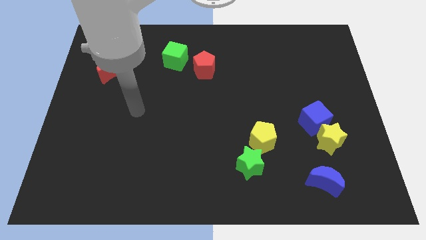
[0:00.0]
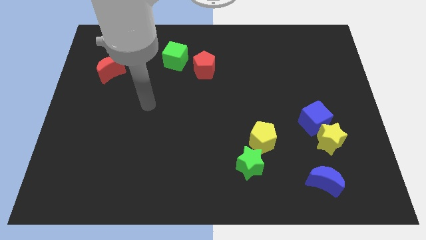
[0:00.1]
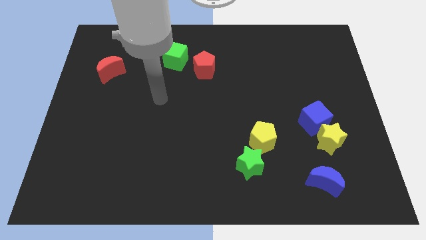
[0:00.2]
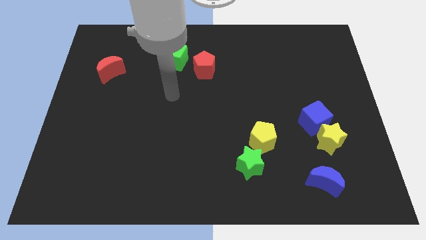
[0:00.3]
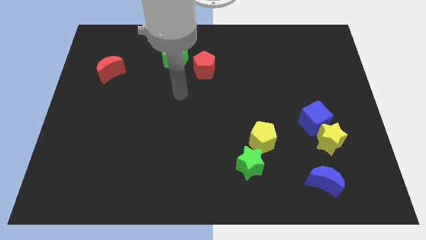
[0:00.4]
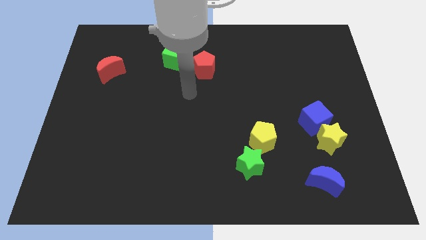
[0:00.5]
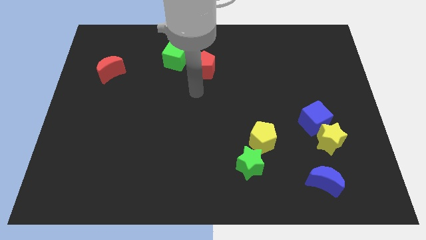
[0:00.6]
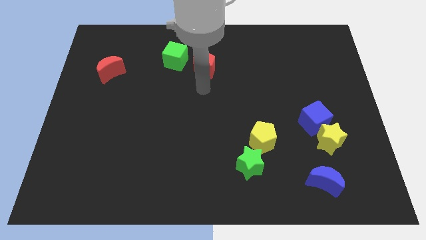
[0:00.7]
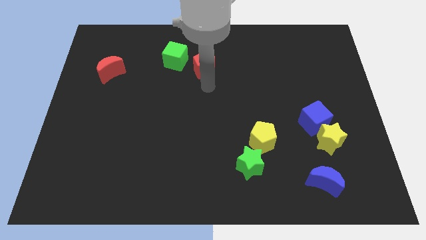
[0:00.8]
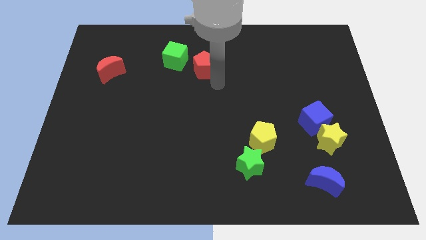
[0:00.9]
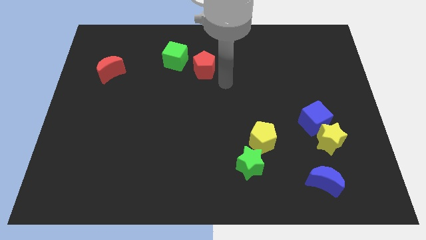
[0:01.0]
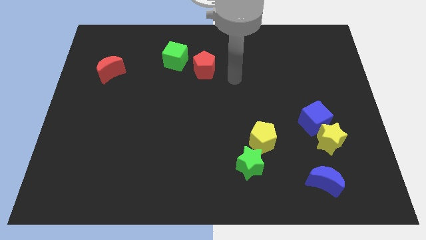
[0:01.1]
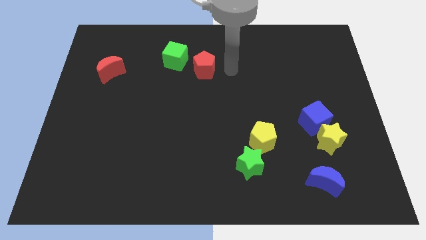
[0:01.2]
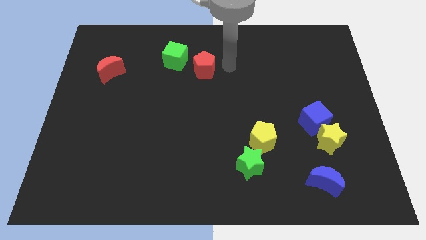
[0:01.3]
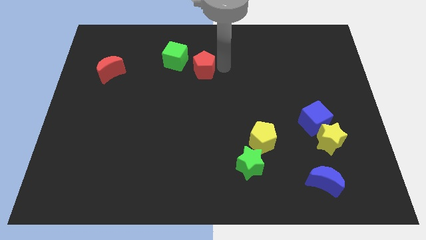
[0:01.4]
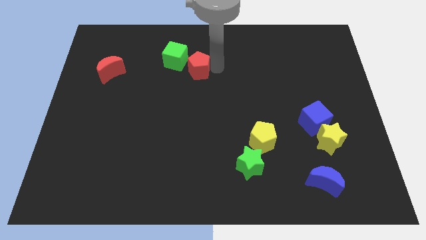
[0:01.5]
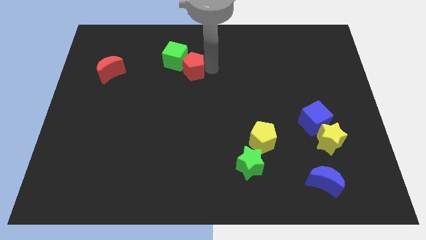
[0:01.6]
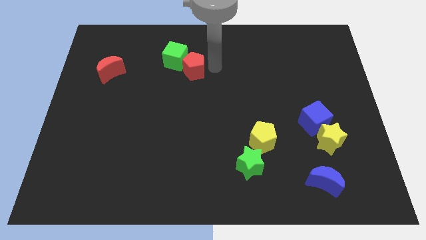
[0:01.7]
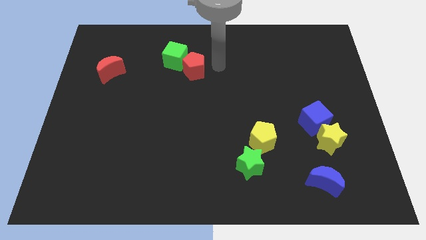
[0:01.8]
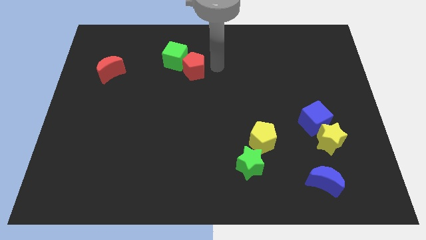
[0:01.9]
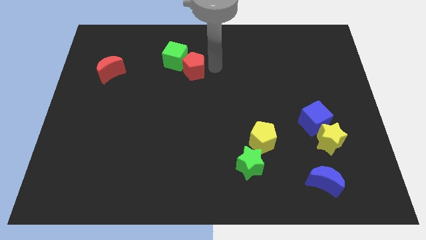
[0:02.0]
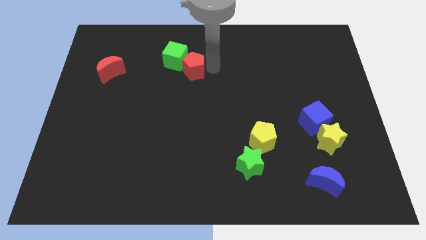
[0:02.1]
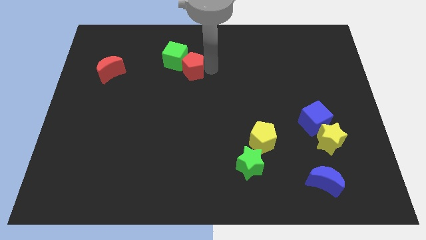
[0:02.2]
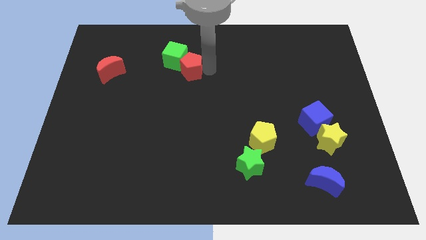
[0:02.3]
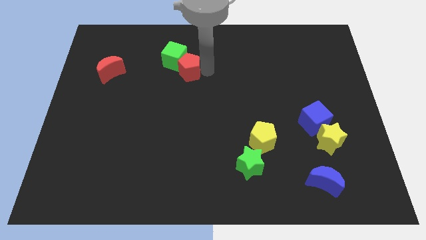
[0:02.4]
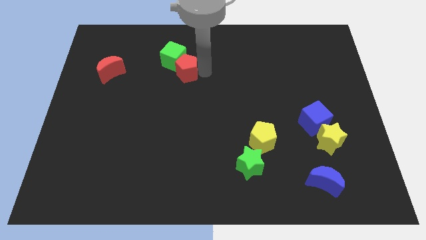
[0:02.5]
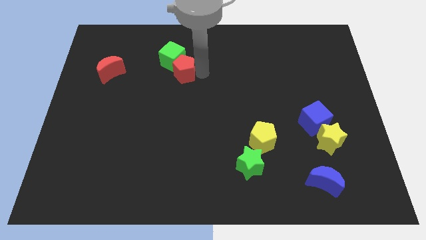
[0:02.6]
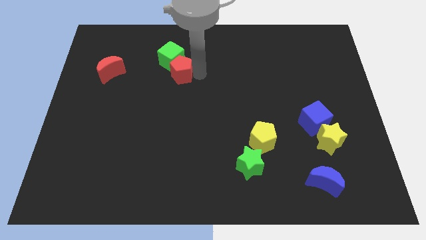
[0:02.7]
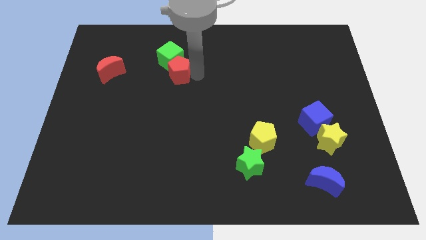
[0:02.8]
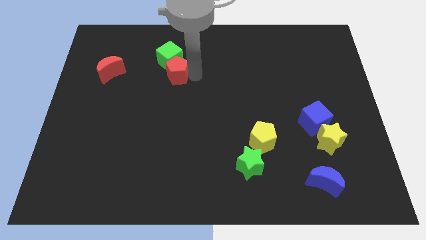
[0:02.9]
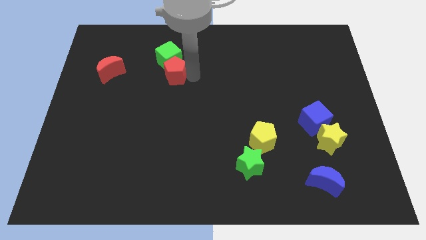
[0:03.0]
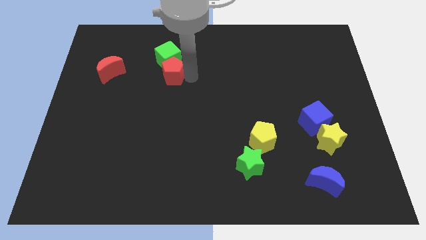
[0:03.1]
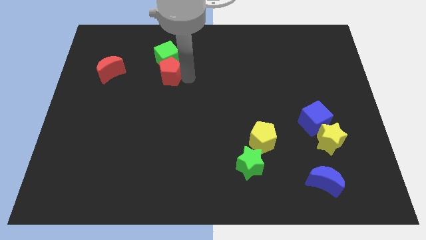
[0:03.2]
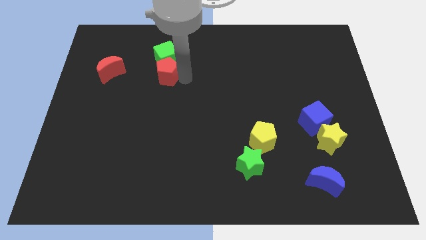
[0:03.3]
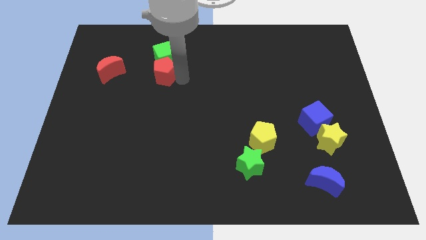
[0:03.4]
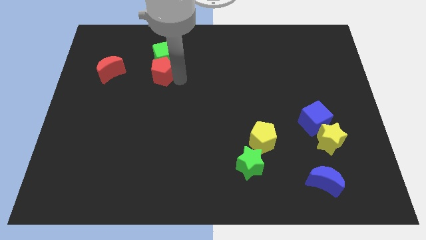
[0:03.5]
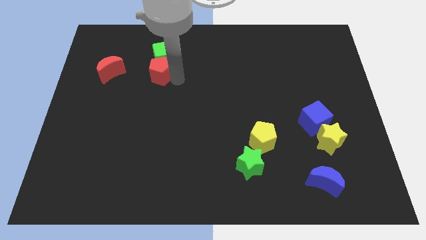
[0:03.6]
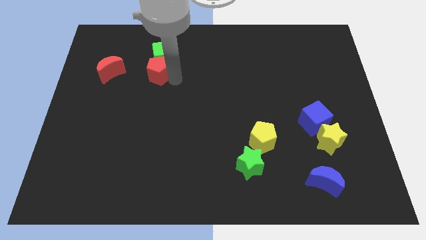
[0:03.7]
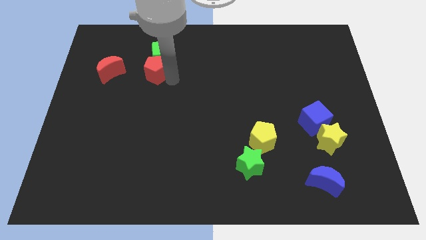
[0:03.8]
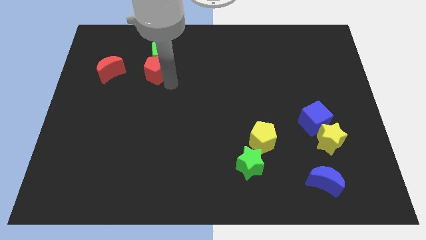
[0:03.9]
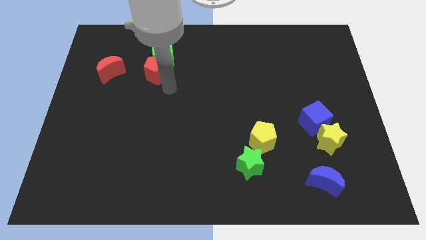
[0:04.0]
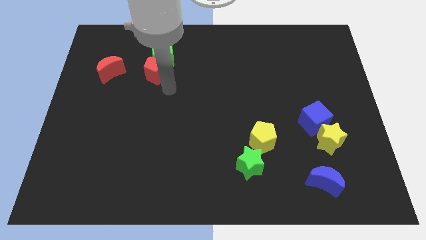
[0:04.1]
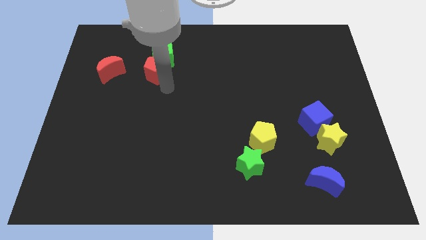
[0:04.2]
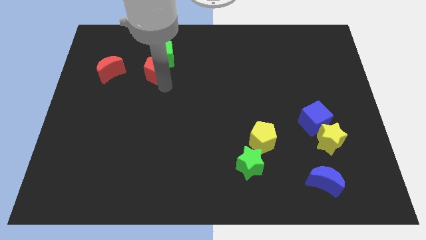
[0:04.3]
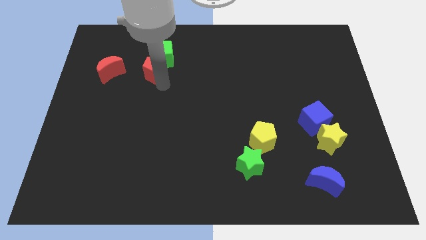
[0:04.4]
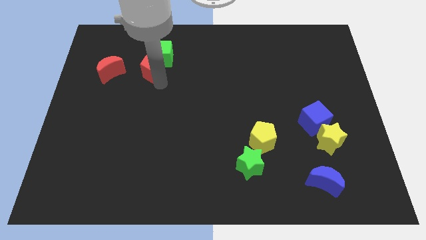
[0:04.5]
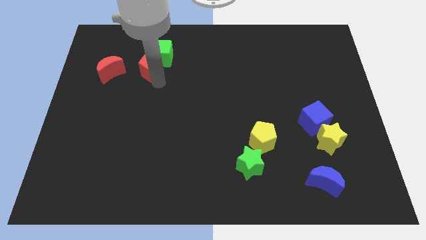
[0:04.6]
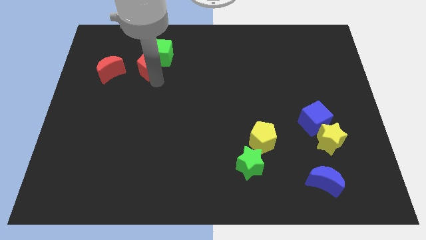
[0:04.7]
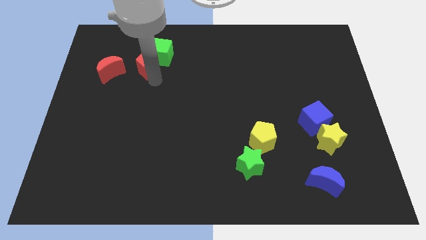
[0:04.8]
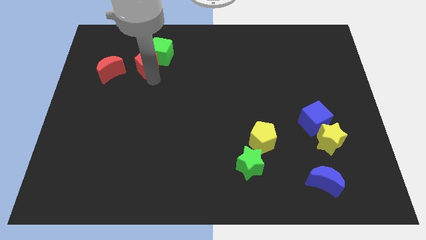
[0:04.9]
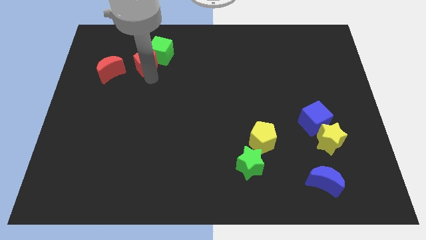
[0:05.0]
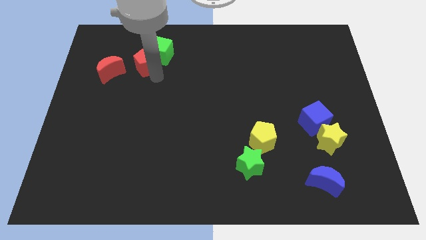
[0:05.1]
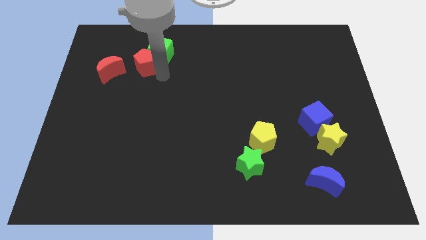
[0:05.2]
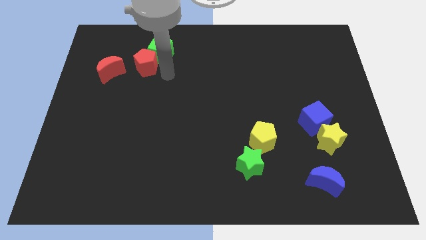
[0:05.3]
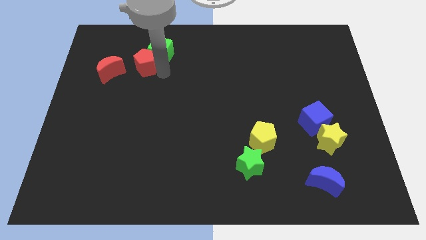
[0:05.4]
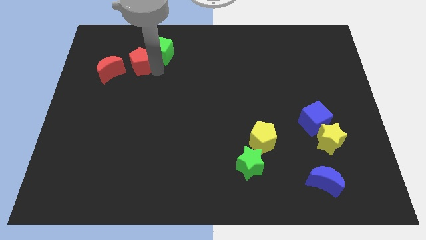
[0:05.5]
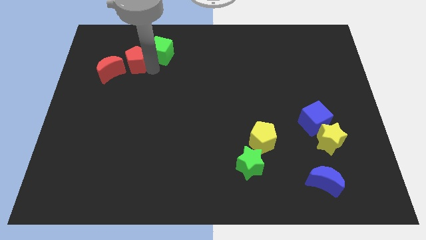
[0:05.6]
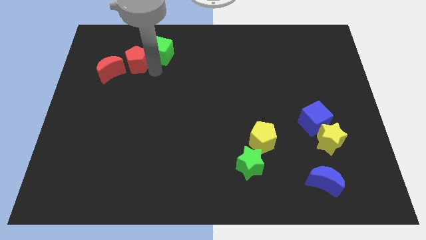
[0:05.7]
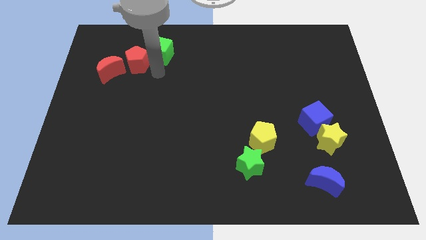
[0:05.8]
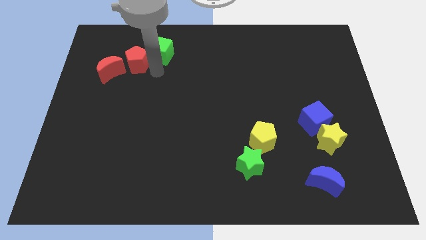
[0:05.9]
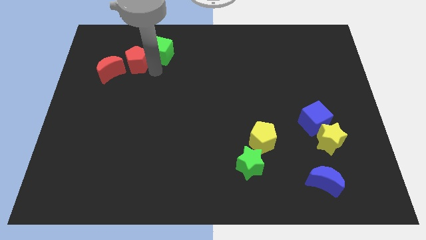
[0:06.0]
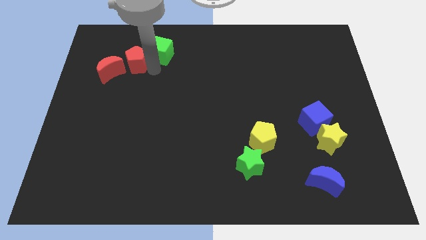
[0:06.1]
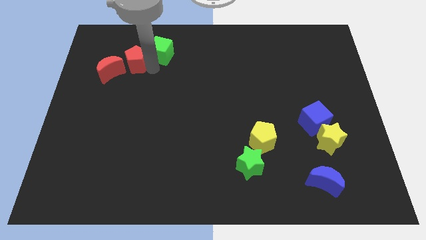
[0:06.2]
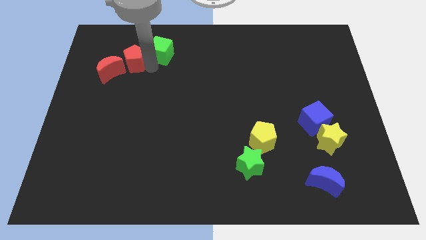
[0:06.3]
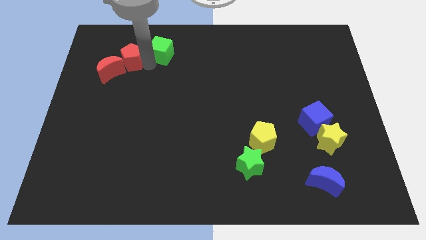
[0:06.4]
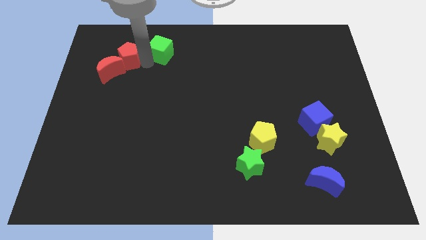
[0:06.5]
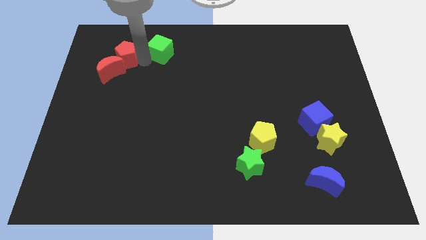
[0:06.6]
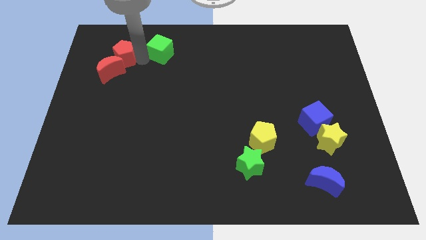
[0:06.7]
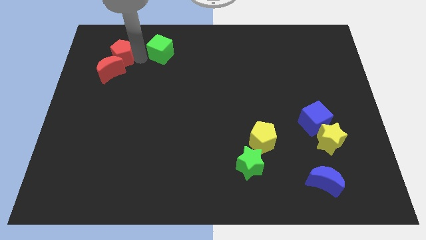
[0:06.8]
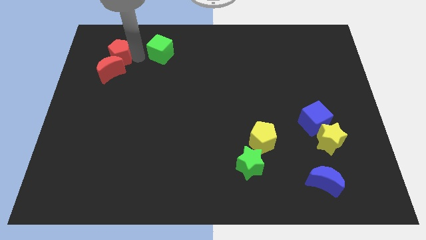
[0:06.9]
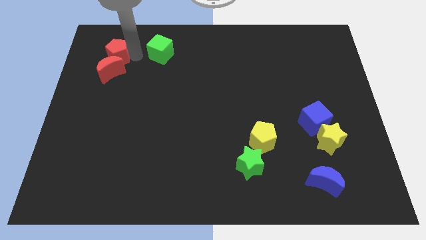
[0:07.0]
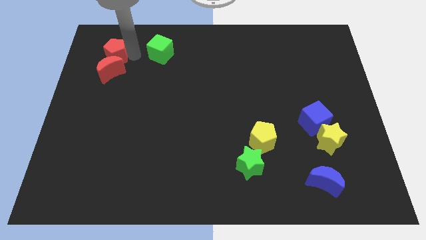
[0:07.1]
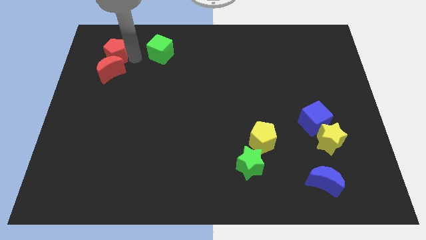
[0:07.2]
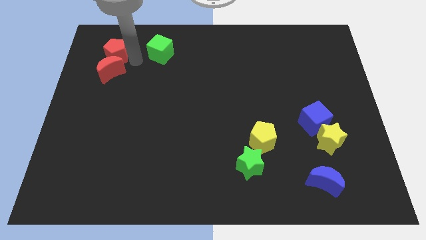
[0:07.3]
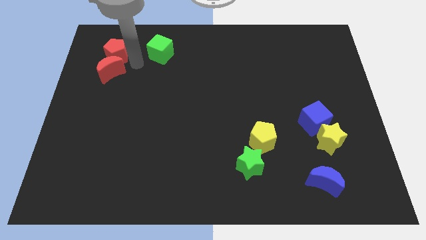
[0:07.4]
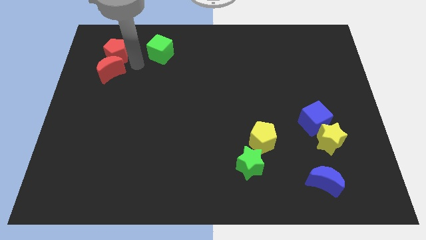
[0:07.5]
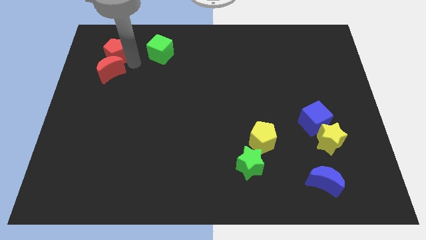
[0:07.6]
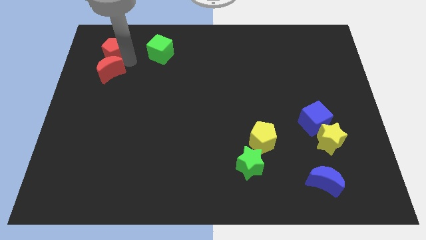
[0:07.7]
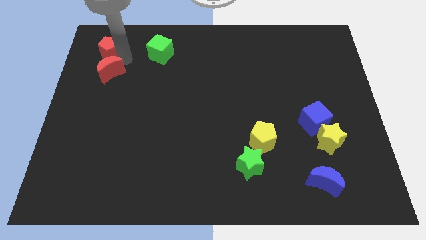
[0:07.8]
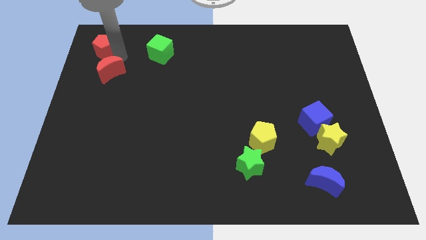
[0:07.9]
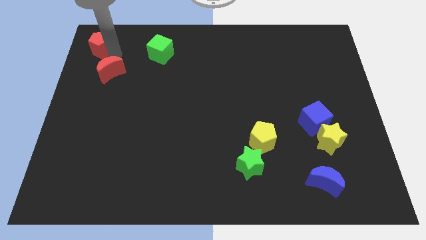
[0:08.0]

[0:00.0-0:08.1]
push the red pentagon to the top left corner
